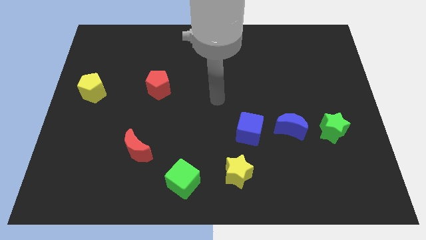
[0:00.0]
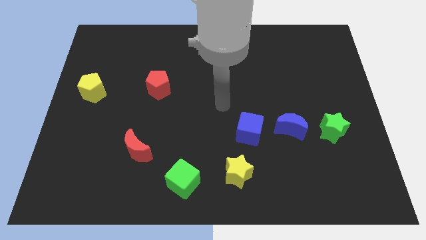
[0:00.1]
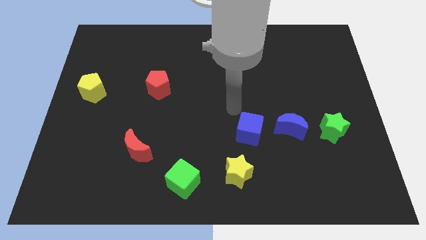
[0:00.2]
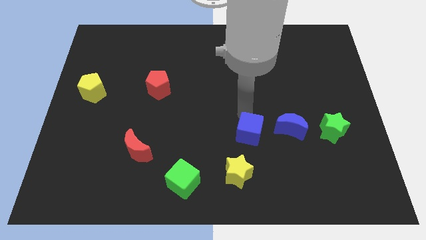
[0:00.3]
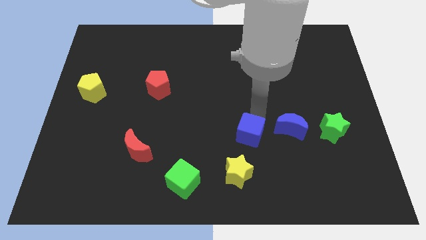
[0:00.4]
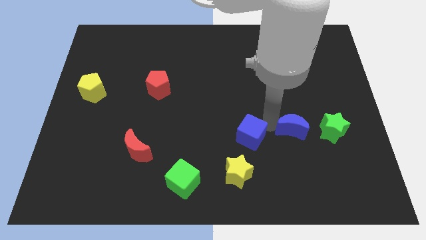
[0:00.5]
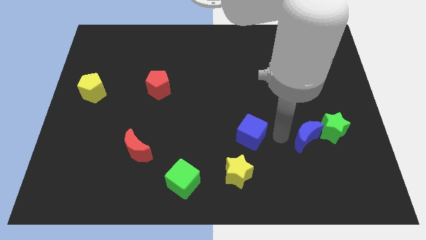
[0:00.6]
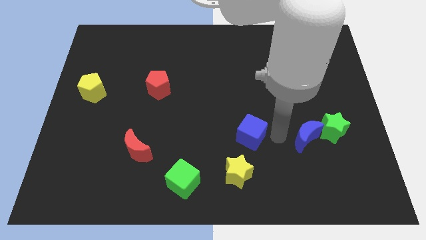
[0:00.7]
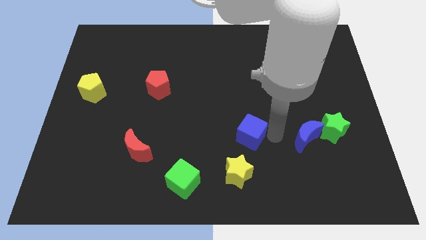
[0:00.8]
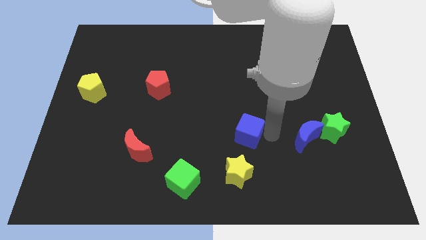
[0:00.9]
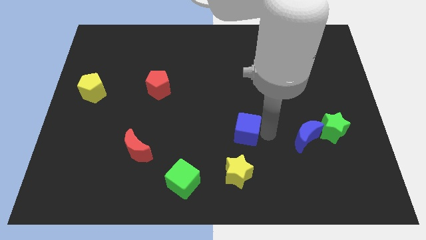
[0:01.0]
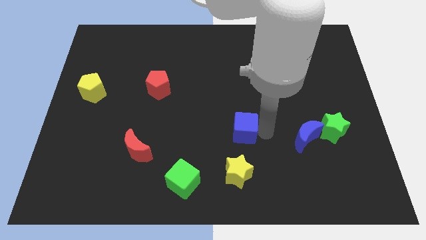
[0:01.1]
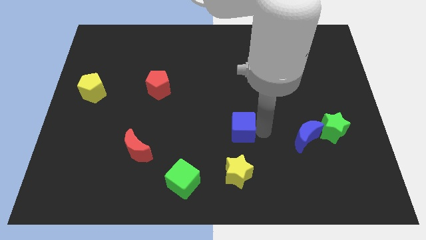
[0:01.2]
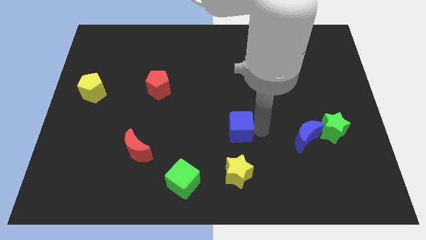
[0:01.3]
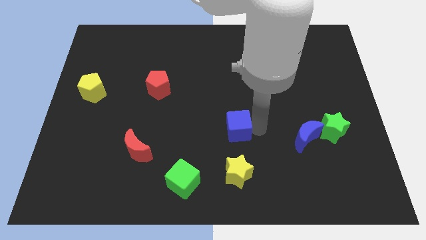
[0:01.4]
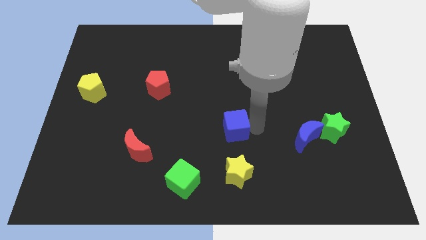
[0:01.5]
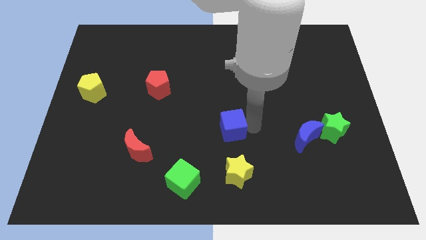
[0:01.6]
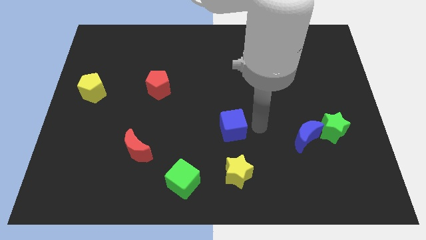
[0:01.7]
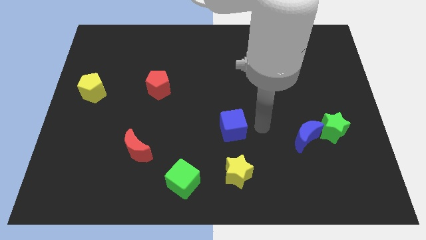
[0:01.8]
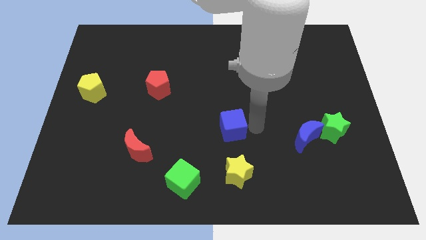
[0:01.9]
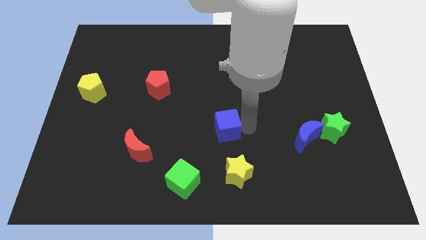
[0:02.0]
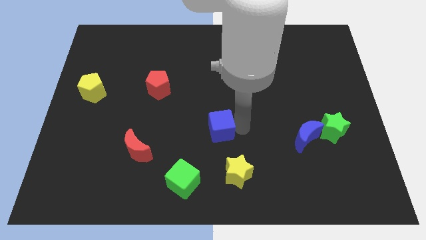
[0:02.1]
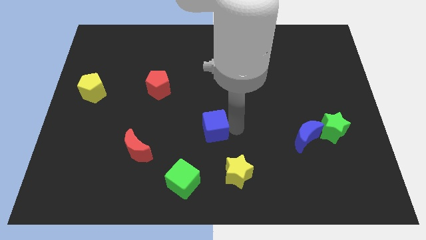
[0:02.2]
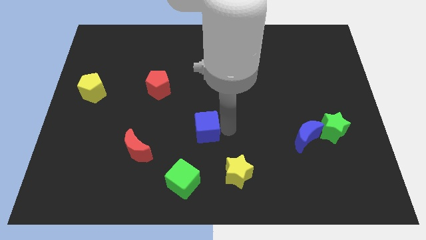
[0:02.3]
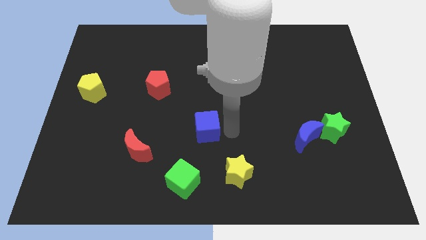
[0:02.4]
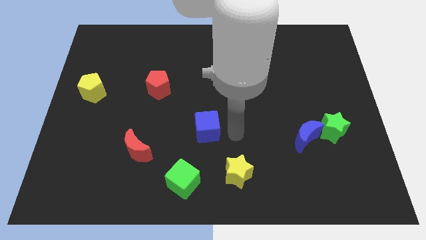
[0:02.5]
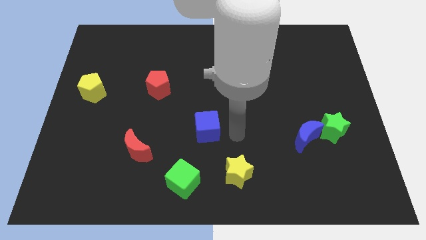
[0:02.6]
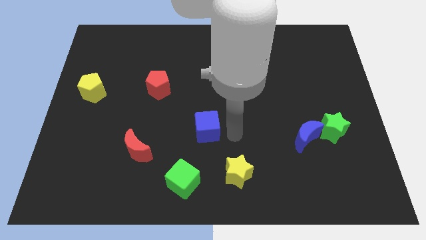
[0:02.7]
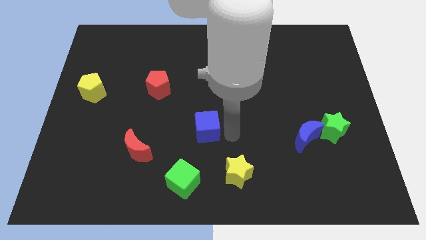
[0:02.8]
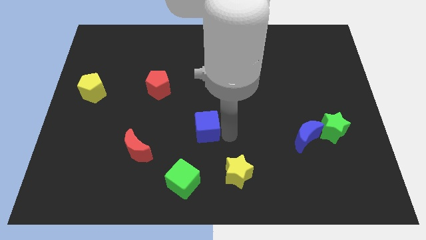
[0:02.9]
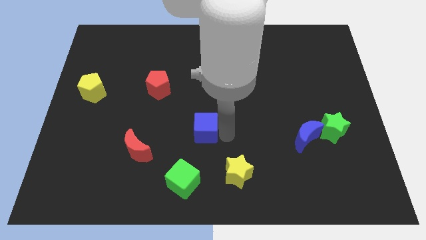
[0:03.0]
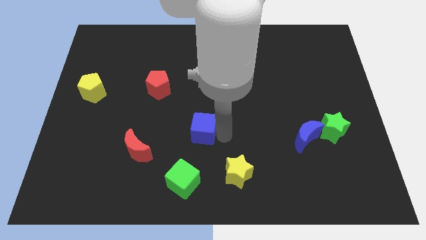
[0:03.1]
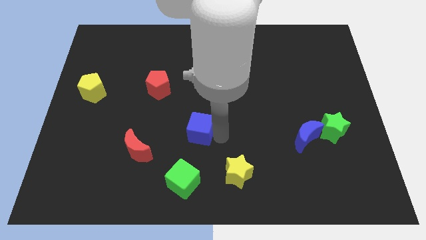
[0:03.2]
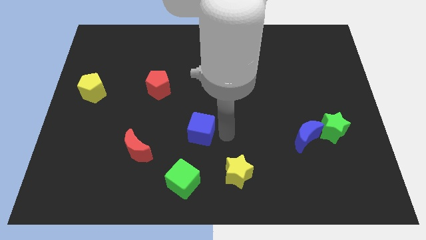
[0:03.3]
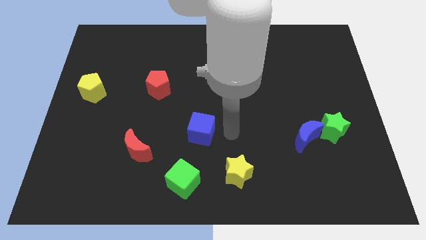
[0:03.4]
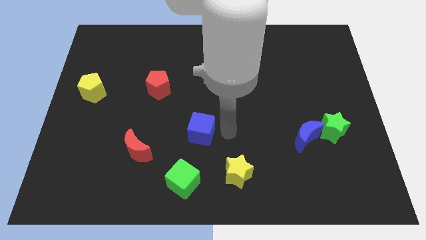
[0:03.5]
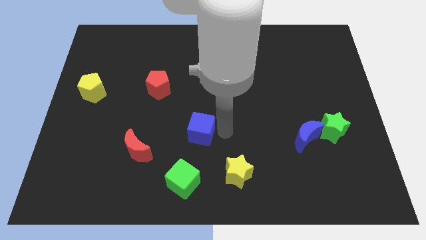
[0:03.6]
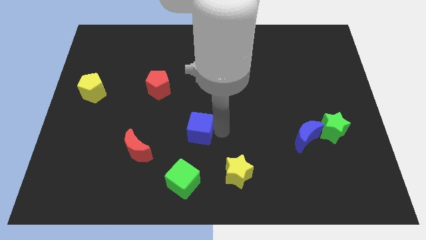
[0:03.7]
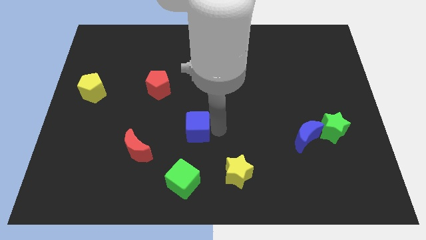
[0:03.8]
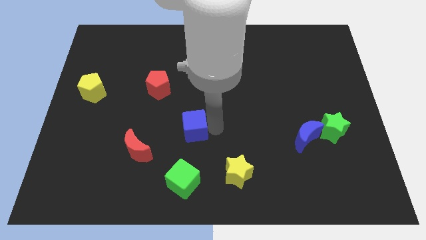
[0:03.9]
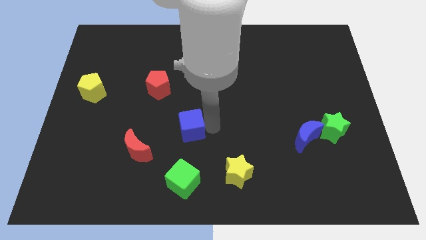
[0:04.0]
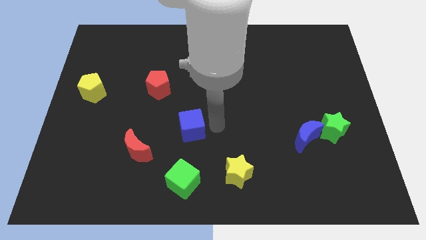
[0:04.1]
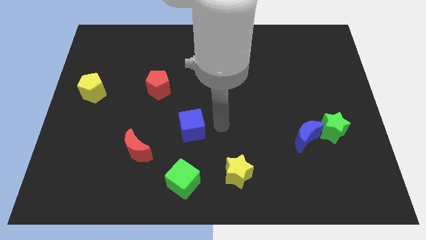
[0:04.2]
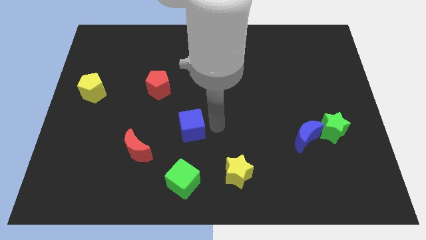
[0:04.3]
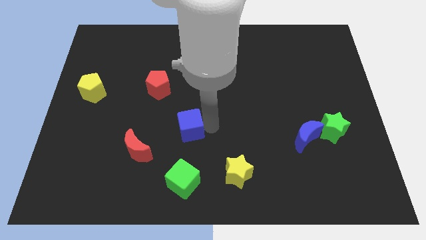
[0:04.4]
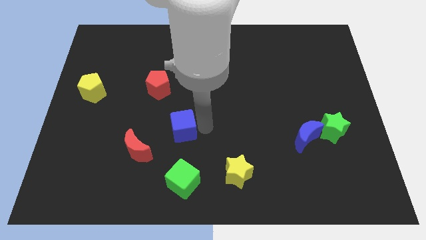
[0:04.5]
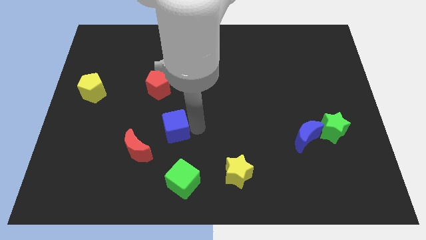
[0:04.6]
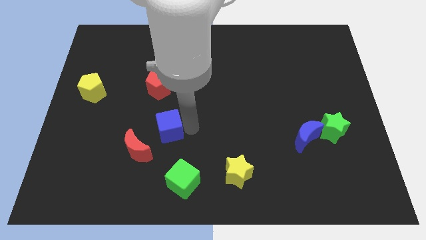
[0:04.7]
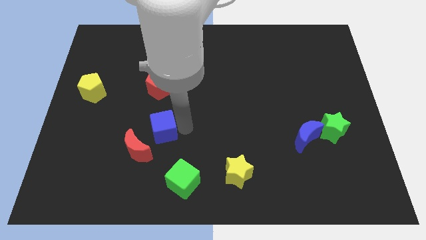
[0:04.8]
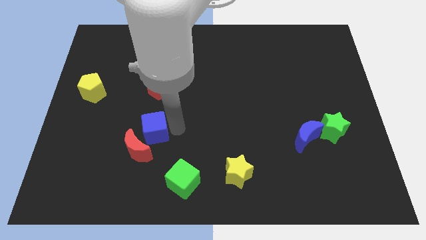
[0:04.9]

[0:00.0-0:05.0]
slide the blue cube left

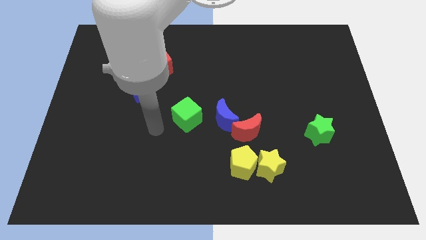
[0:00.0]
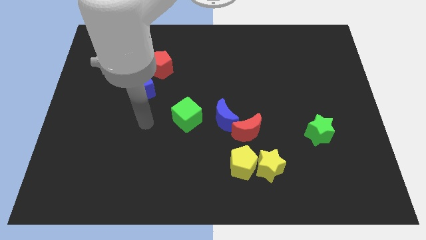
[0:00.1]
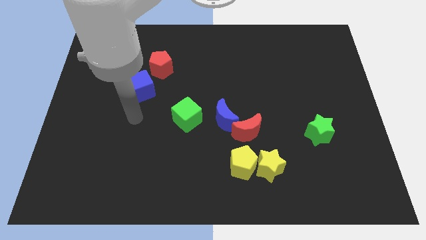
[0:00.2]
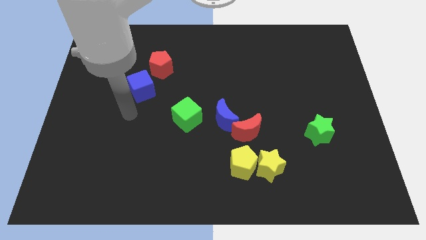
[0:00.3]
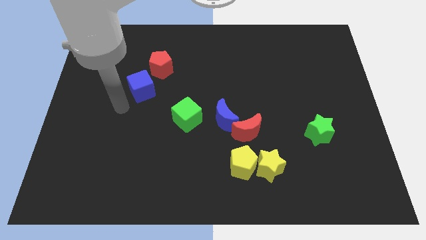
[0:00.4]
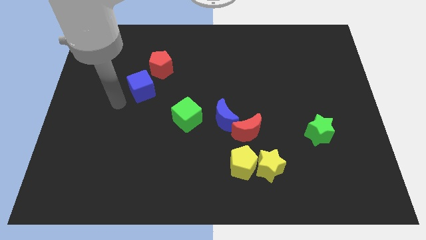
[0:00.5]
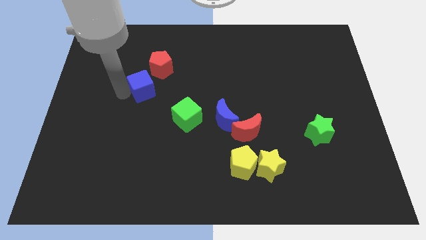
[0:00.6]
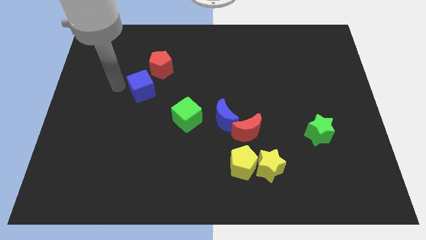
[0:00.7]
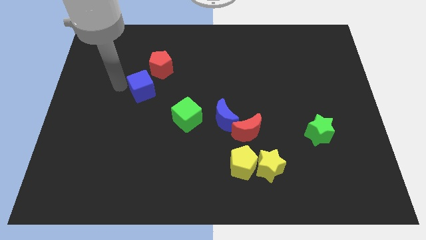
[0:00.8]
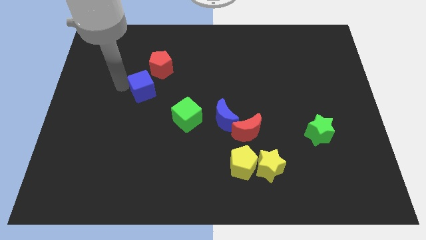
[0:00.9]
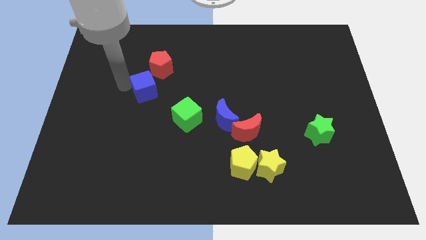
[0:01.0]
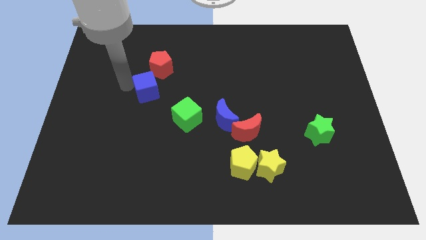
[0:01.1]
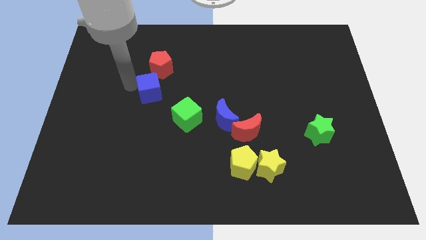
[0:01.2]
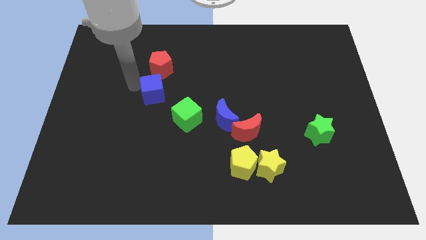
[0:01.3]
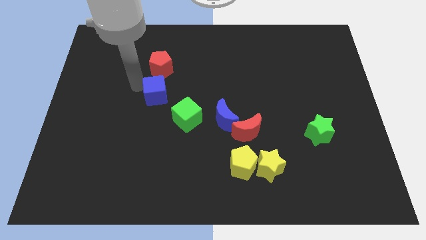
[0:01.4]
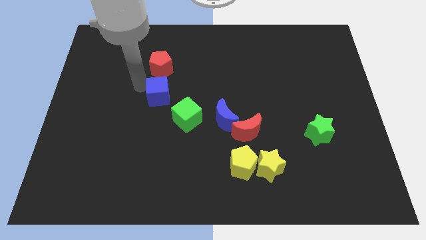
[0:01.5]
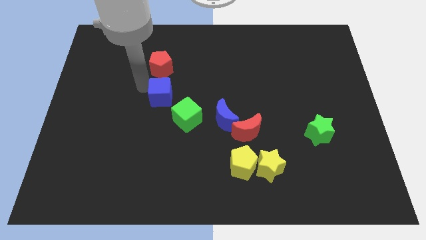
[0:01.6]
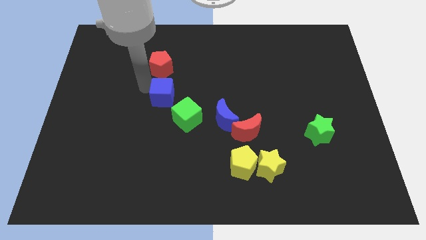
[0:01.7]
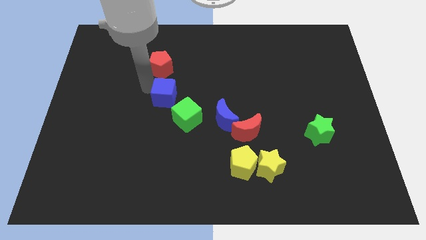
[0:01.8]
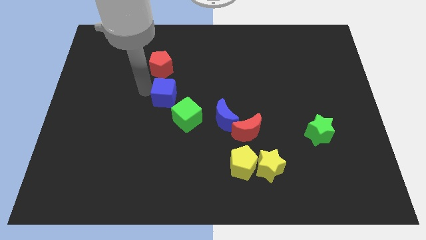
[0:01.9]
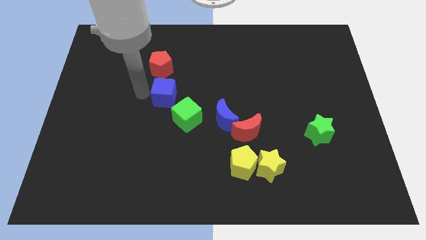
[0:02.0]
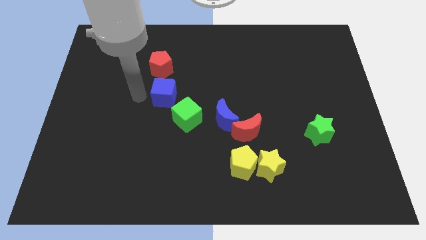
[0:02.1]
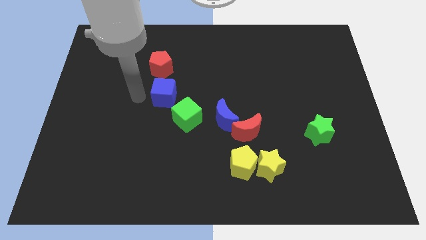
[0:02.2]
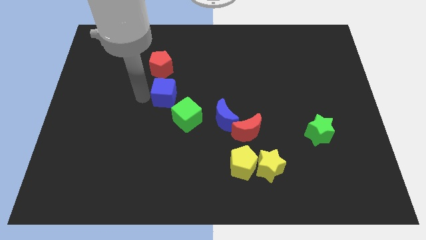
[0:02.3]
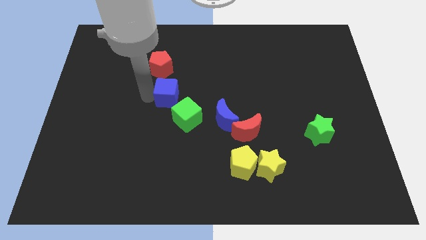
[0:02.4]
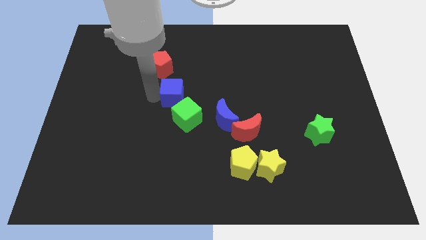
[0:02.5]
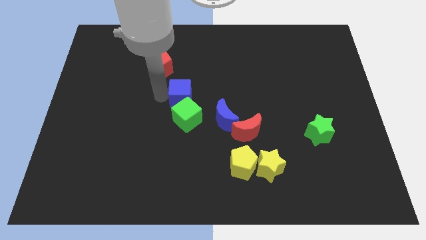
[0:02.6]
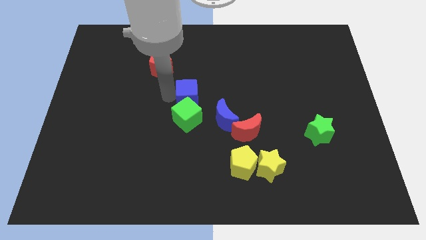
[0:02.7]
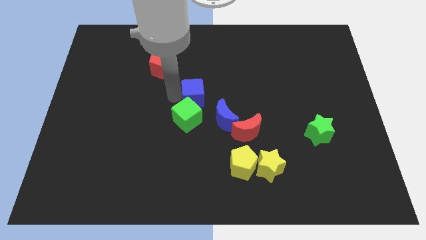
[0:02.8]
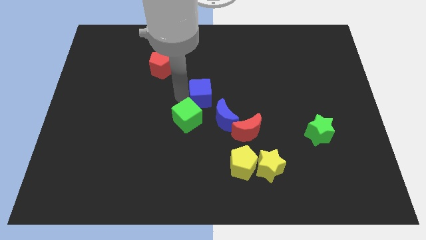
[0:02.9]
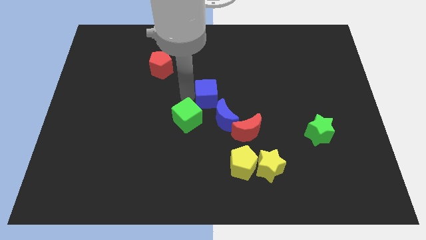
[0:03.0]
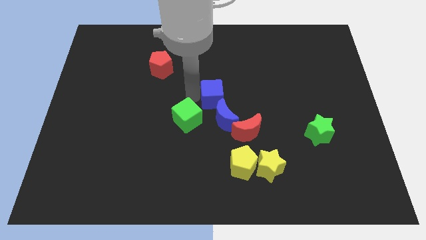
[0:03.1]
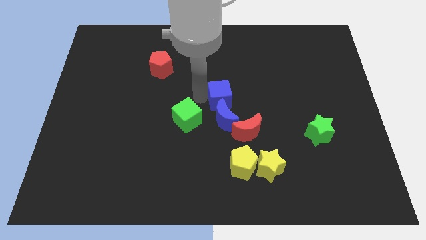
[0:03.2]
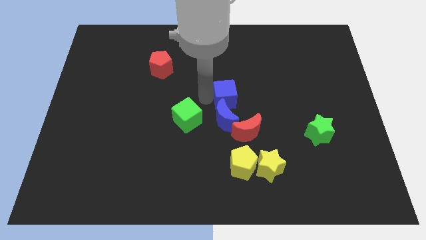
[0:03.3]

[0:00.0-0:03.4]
move the blue cube right
